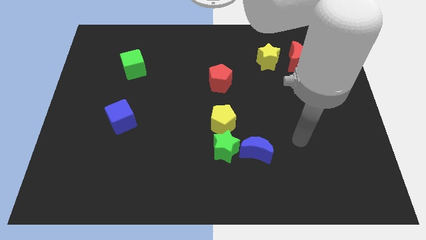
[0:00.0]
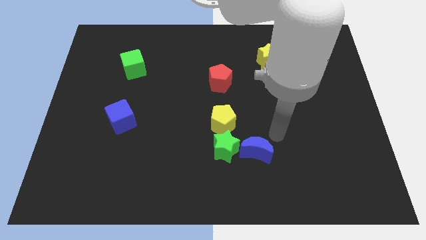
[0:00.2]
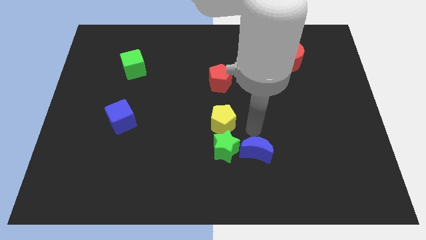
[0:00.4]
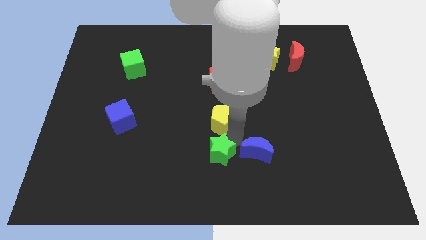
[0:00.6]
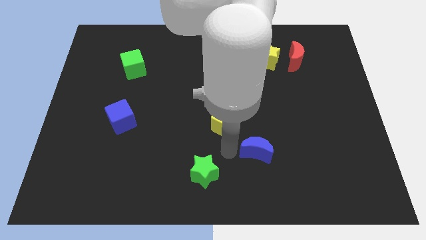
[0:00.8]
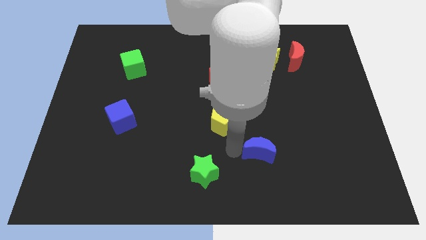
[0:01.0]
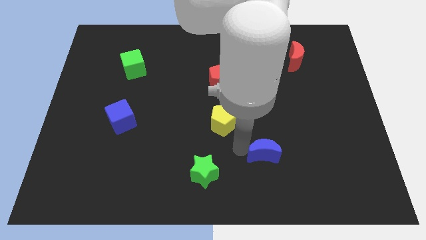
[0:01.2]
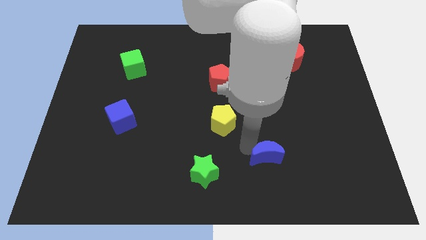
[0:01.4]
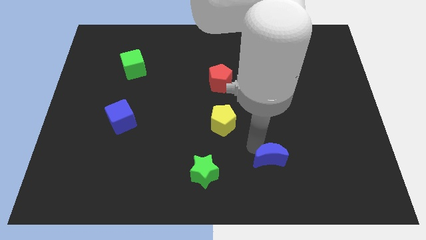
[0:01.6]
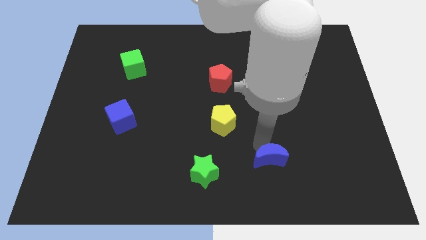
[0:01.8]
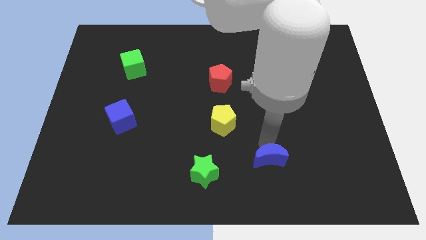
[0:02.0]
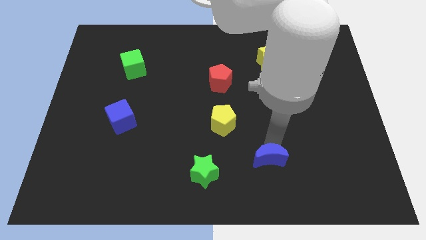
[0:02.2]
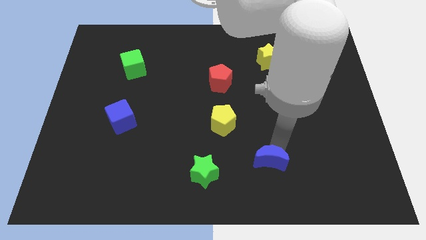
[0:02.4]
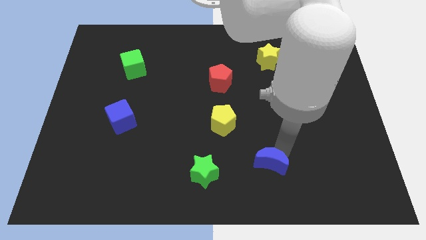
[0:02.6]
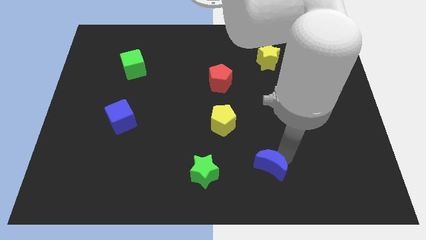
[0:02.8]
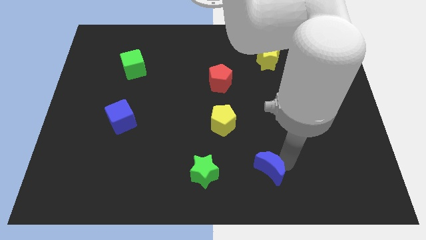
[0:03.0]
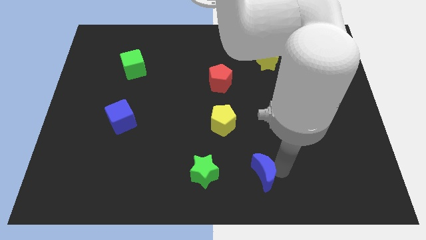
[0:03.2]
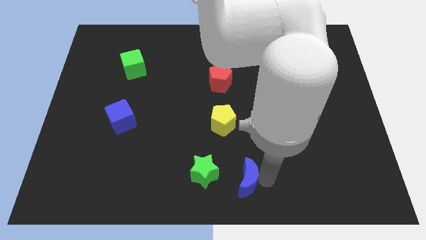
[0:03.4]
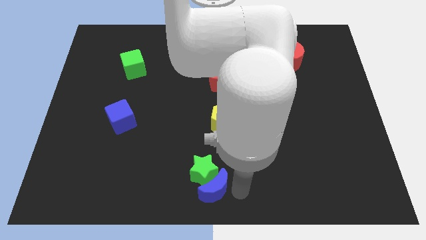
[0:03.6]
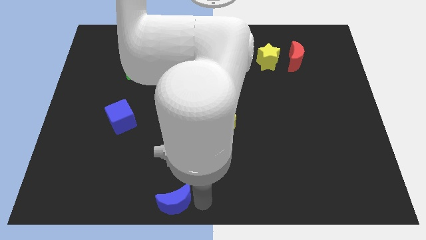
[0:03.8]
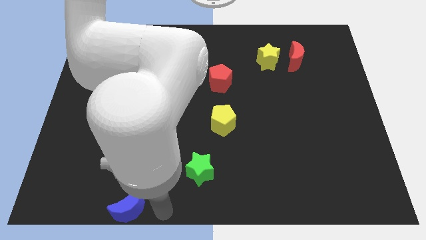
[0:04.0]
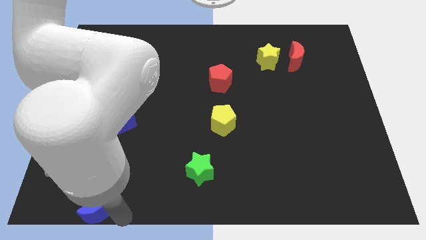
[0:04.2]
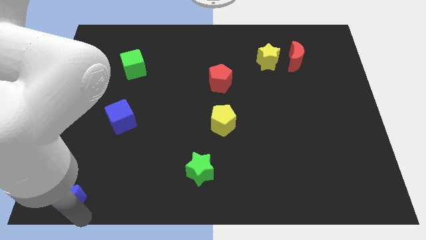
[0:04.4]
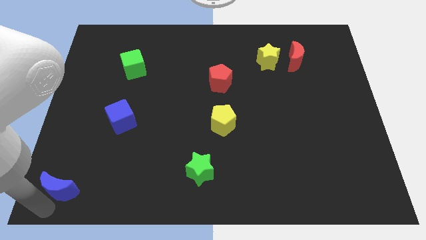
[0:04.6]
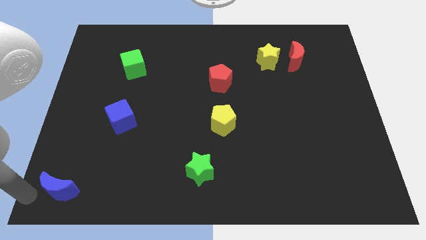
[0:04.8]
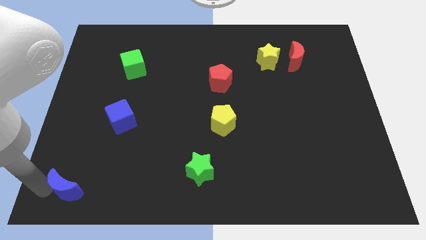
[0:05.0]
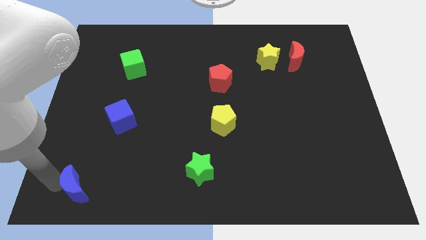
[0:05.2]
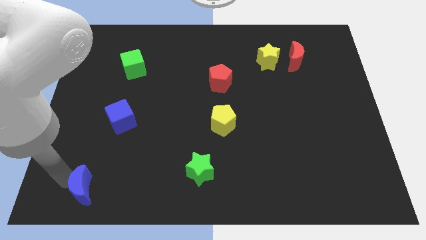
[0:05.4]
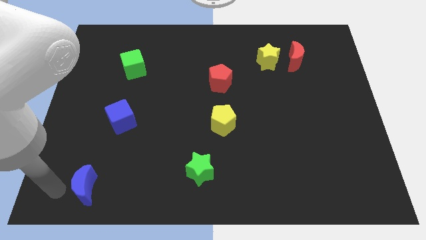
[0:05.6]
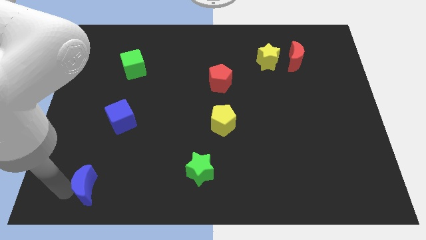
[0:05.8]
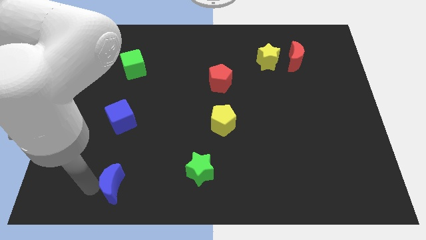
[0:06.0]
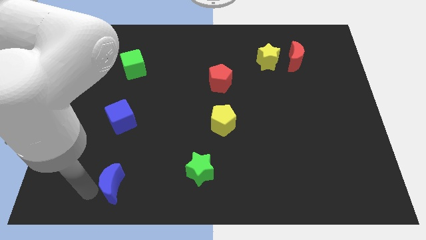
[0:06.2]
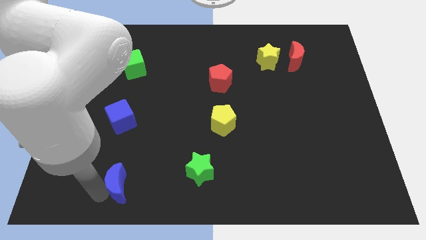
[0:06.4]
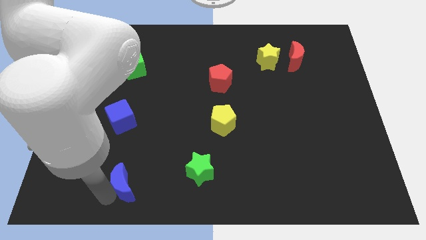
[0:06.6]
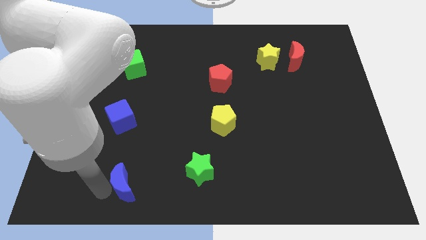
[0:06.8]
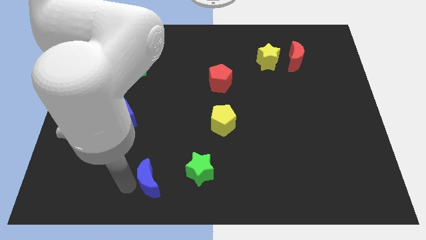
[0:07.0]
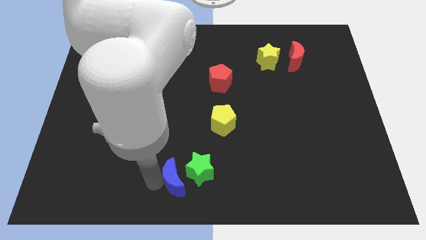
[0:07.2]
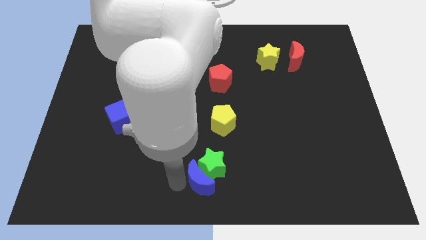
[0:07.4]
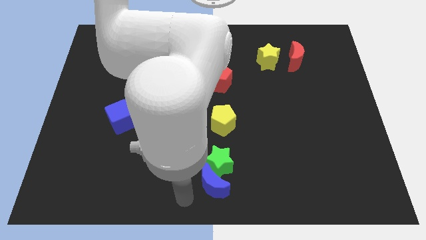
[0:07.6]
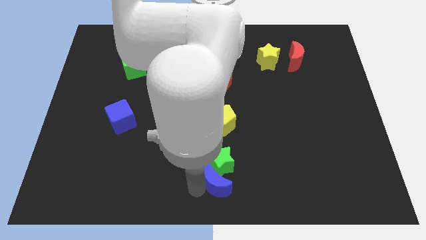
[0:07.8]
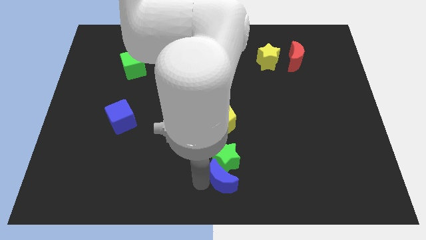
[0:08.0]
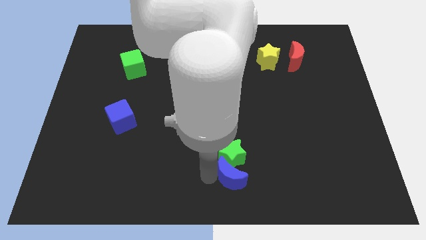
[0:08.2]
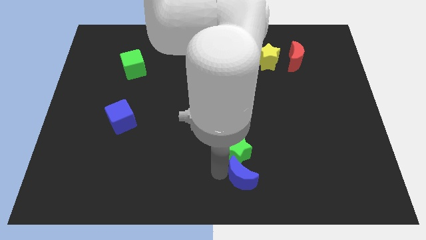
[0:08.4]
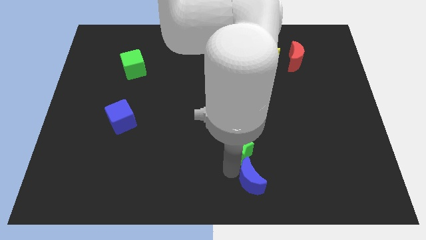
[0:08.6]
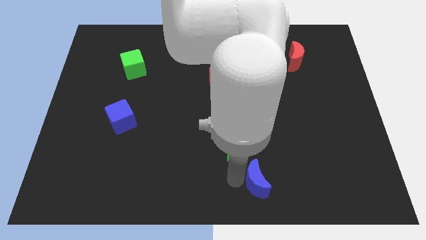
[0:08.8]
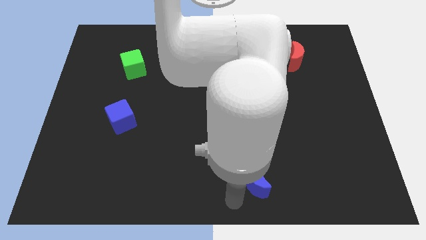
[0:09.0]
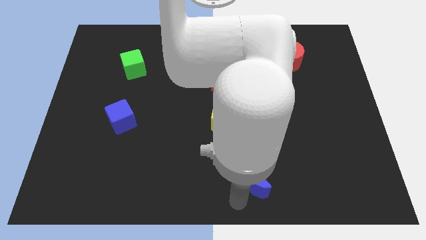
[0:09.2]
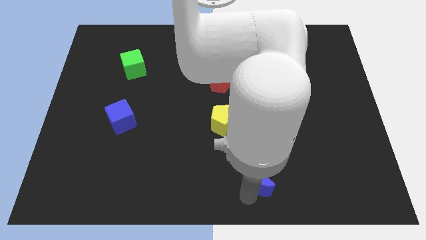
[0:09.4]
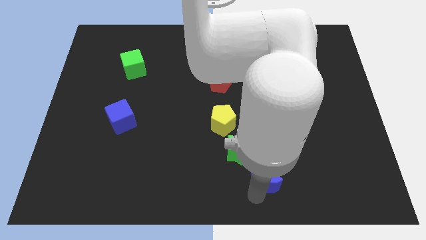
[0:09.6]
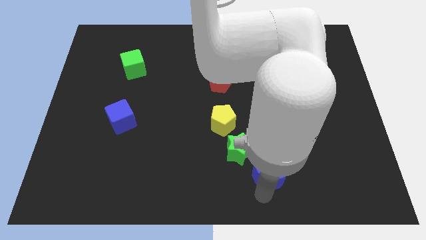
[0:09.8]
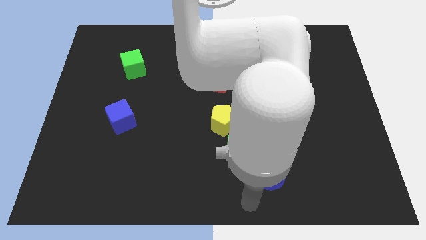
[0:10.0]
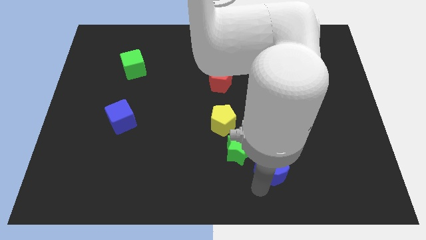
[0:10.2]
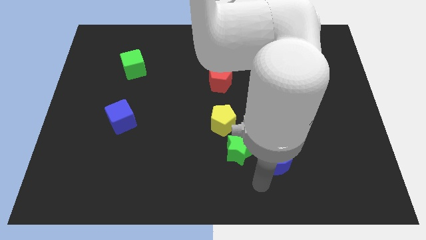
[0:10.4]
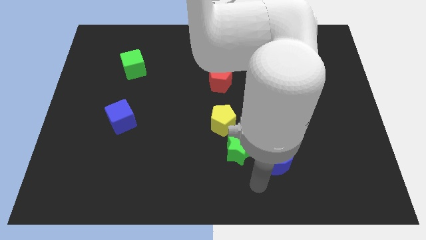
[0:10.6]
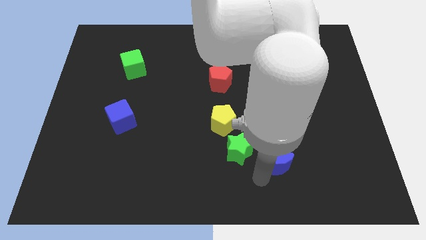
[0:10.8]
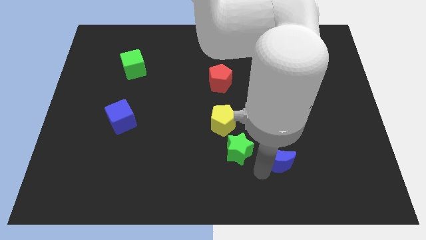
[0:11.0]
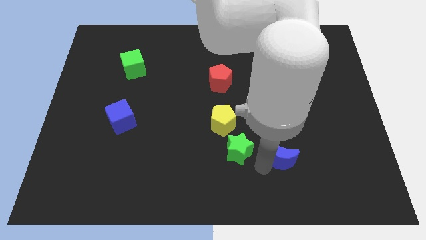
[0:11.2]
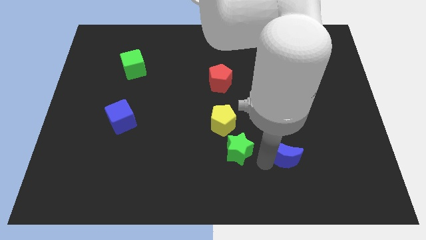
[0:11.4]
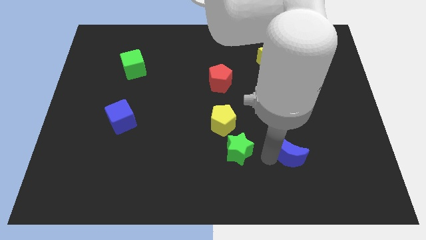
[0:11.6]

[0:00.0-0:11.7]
move the blue moon right slightly

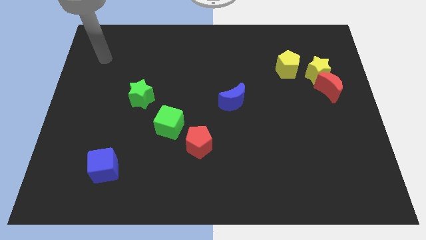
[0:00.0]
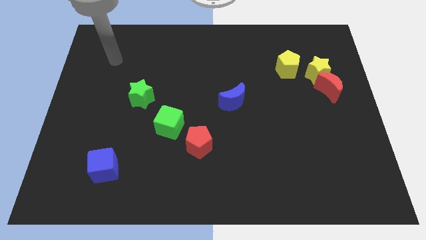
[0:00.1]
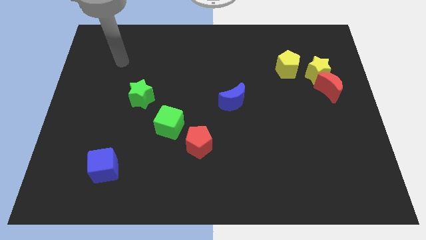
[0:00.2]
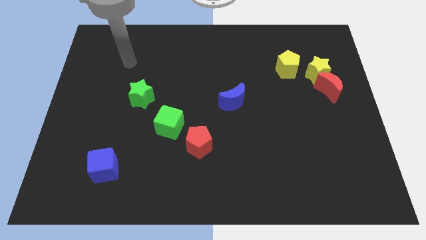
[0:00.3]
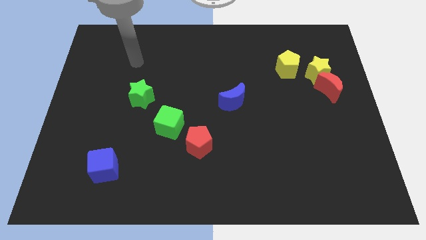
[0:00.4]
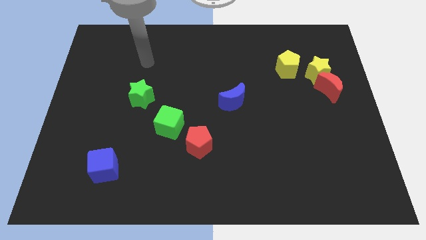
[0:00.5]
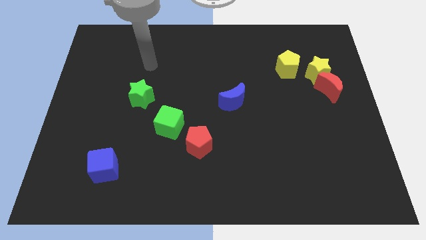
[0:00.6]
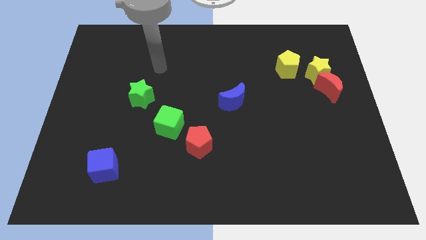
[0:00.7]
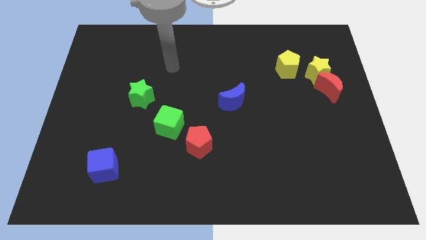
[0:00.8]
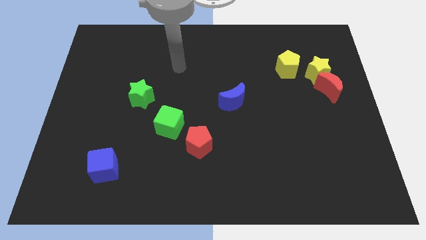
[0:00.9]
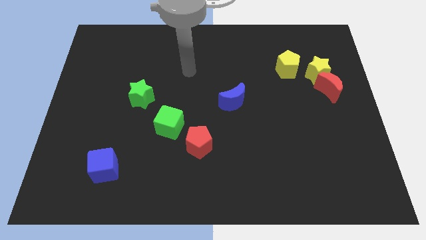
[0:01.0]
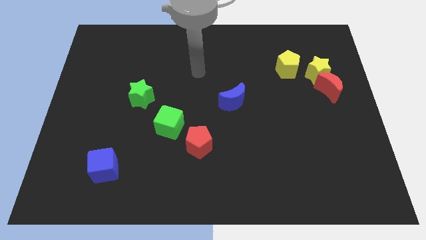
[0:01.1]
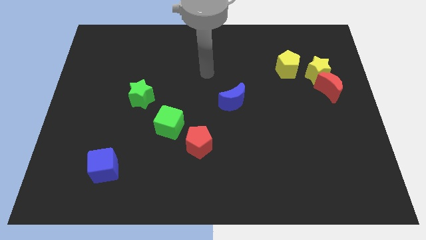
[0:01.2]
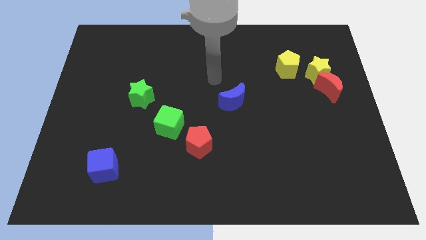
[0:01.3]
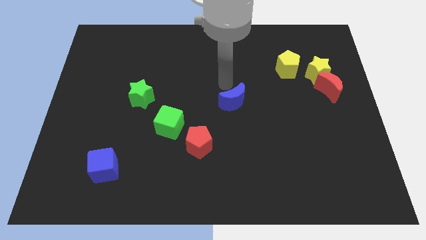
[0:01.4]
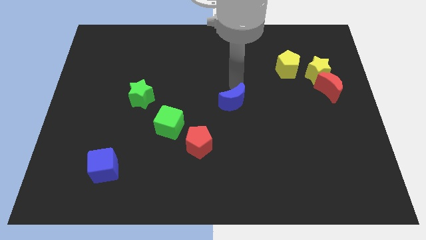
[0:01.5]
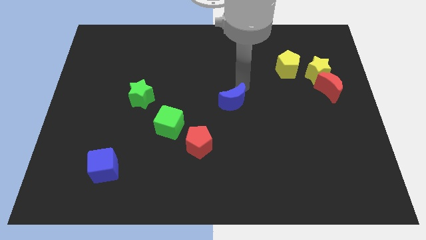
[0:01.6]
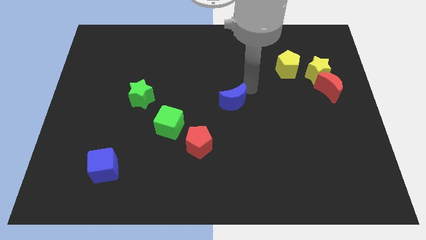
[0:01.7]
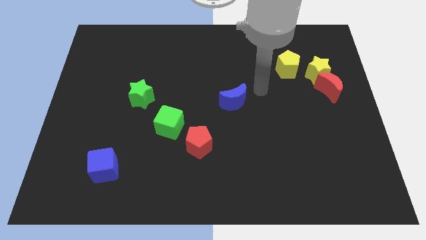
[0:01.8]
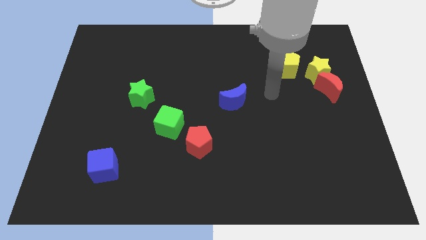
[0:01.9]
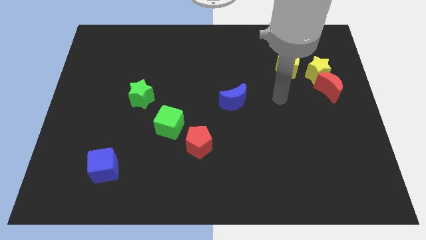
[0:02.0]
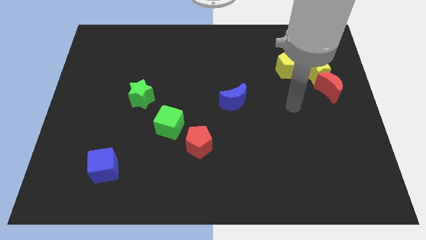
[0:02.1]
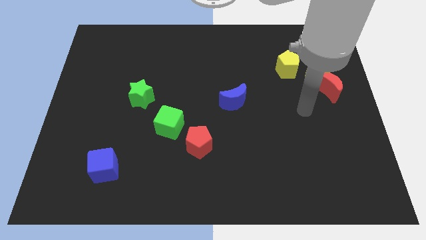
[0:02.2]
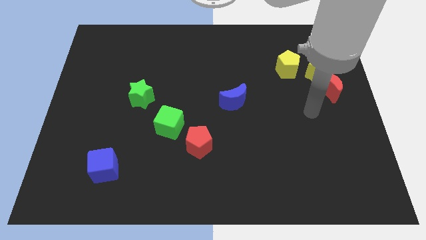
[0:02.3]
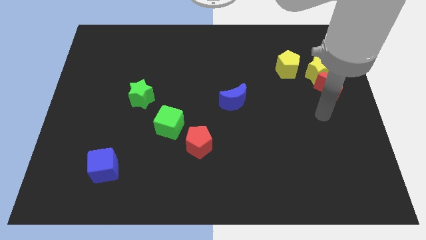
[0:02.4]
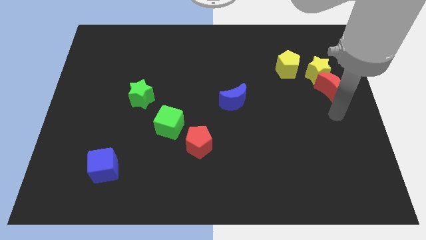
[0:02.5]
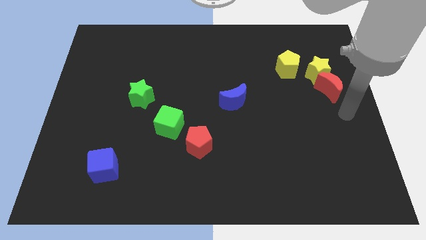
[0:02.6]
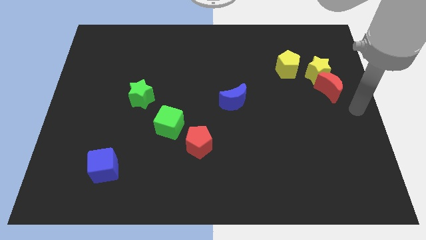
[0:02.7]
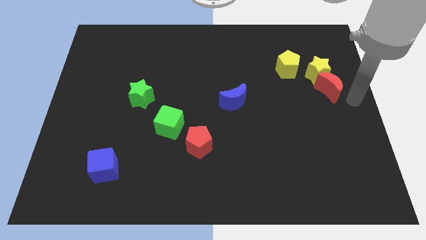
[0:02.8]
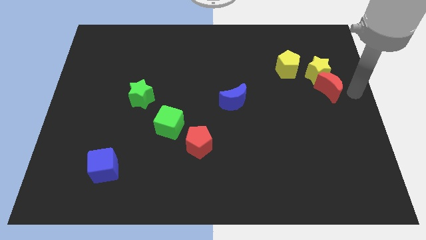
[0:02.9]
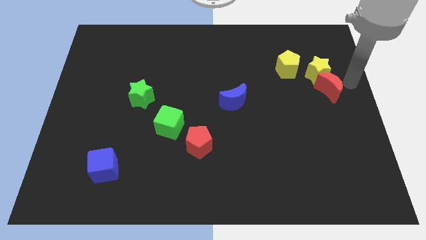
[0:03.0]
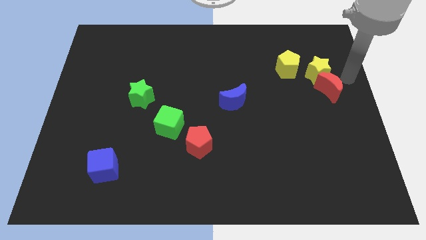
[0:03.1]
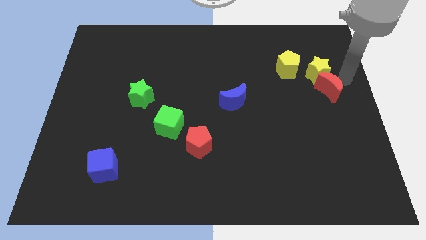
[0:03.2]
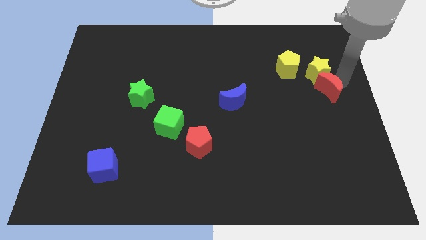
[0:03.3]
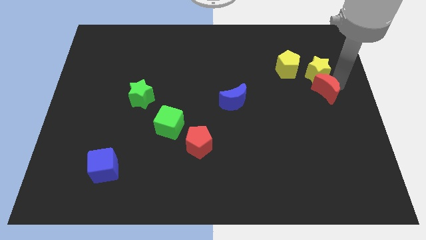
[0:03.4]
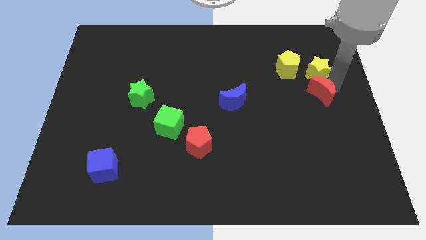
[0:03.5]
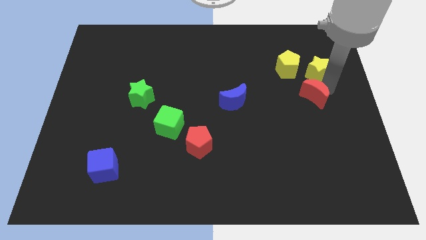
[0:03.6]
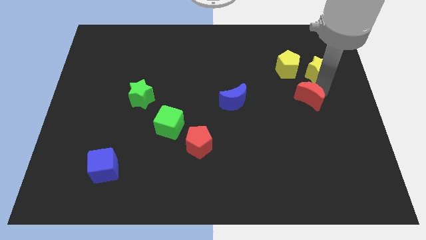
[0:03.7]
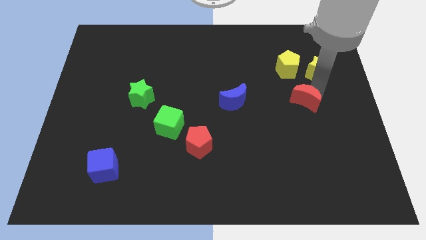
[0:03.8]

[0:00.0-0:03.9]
push the red moon diagonally downwards and left slightly
